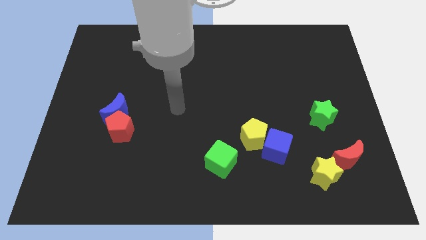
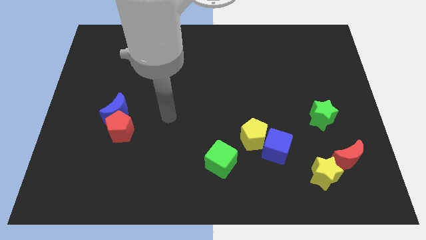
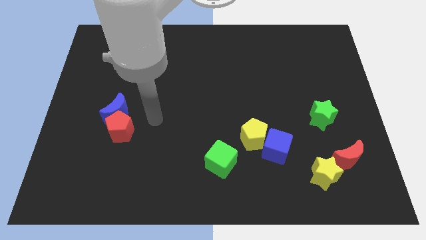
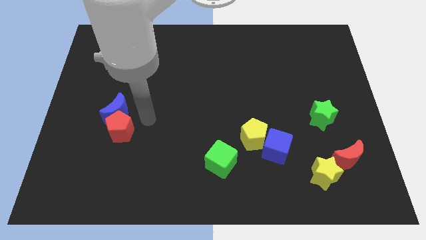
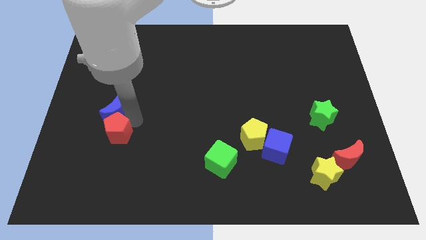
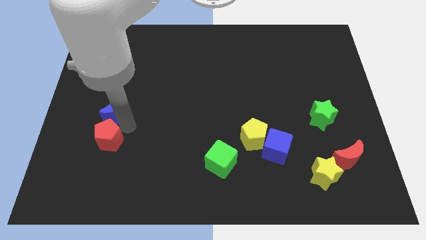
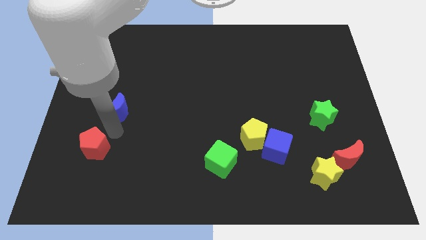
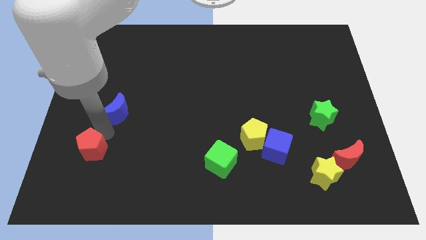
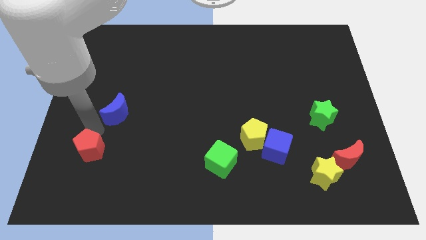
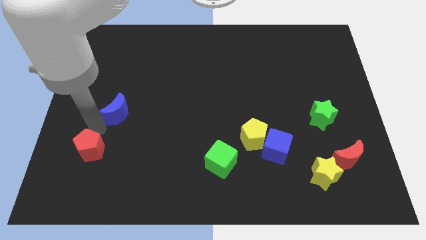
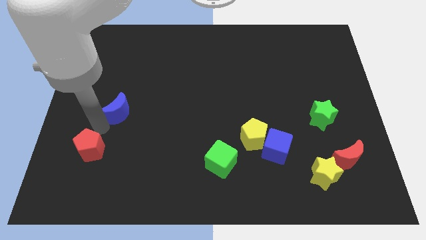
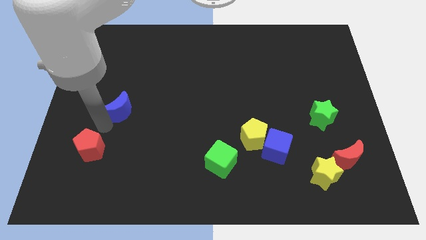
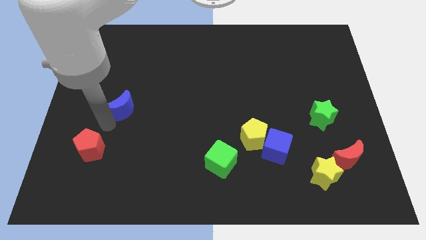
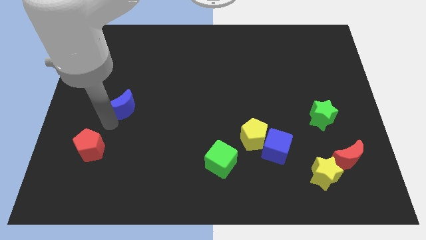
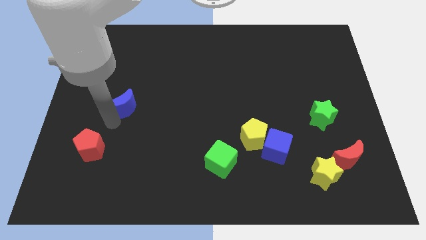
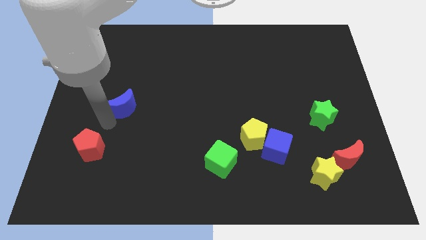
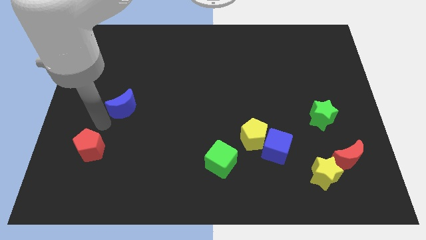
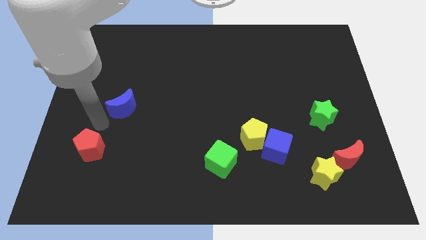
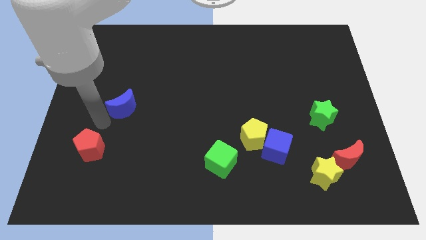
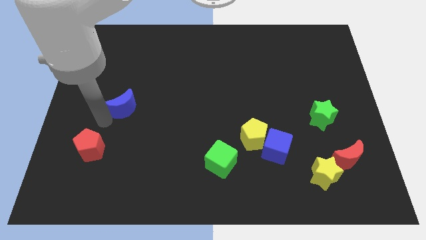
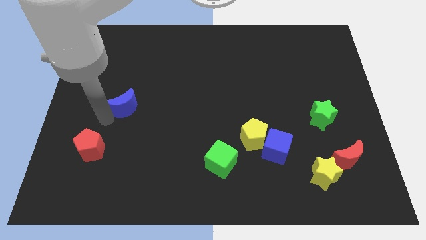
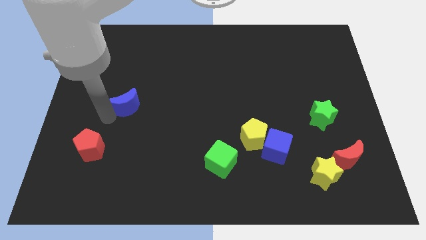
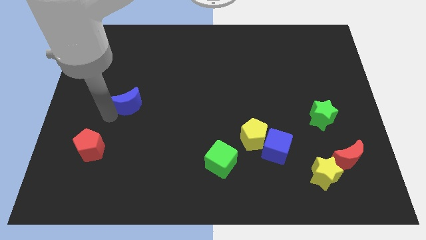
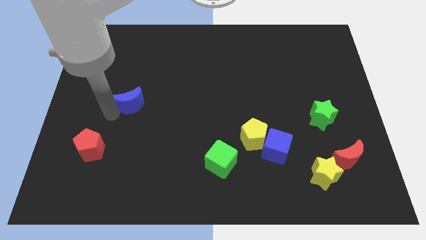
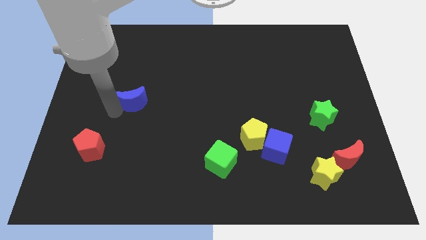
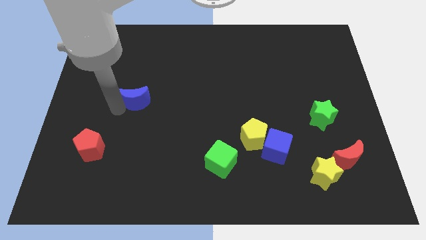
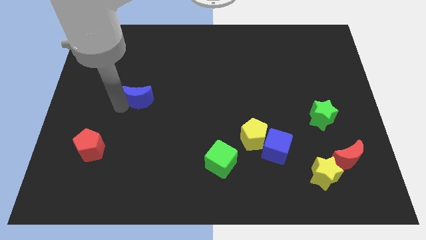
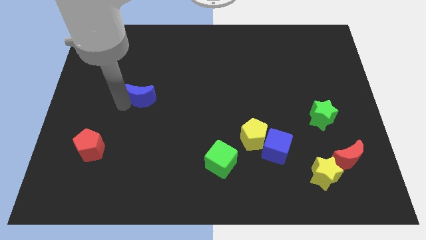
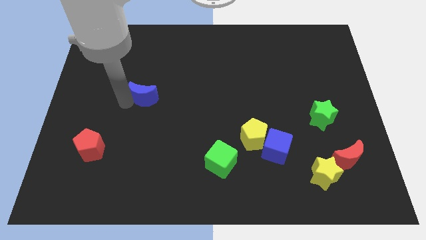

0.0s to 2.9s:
move the blue moon diagonally up and to the right a little

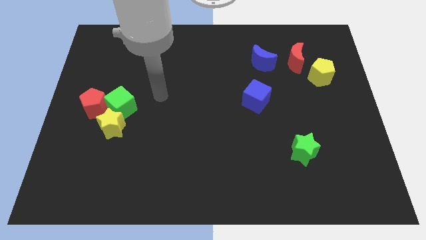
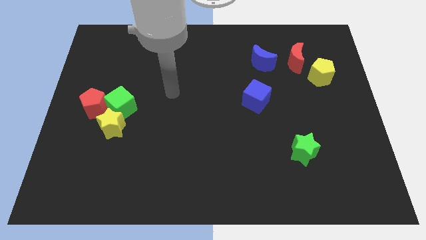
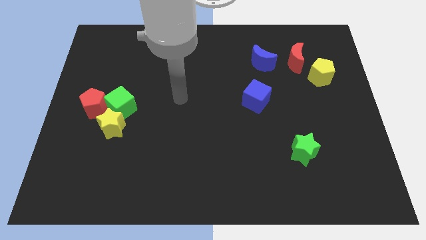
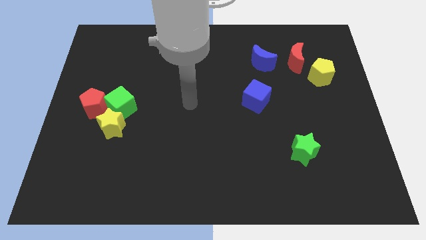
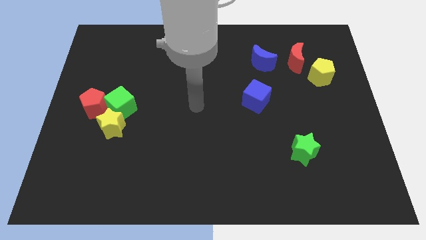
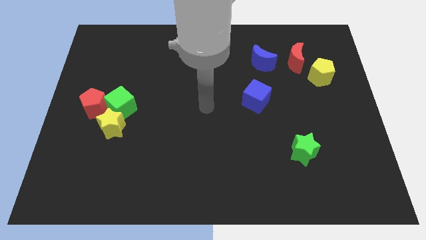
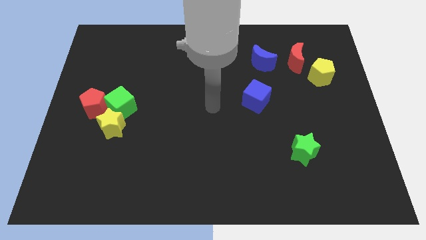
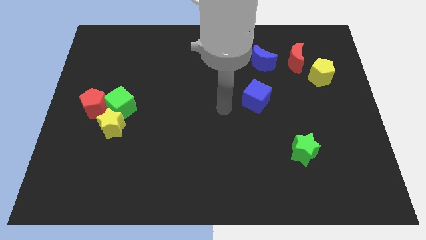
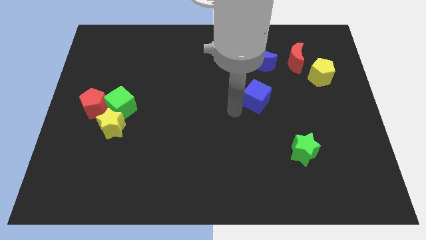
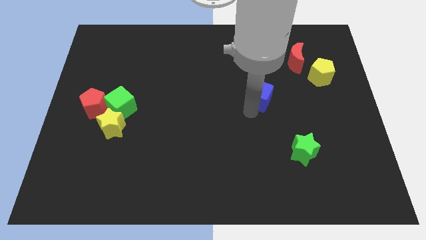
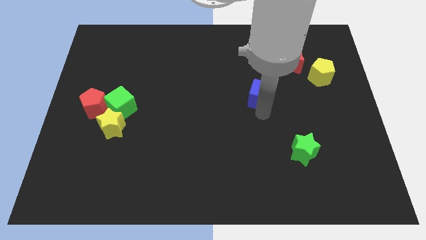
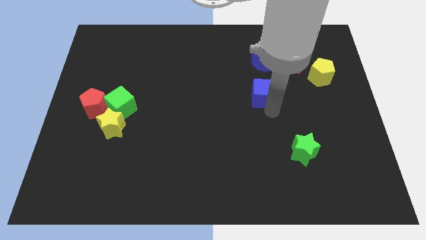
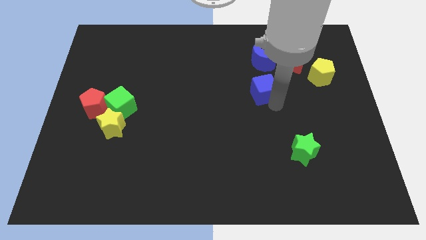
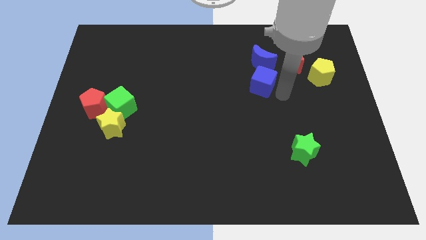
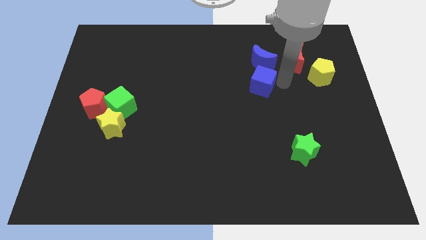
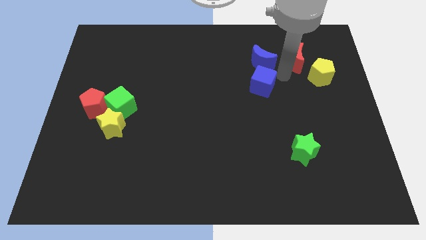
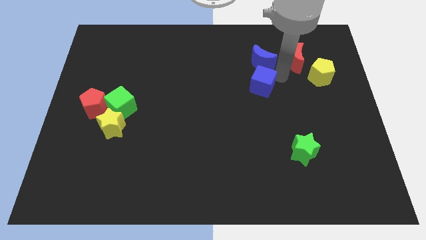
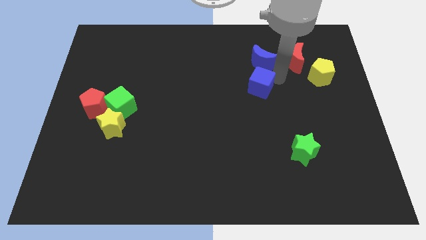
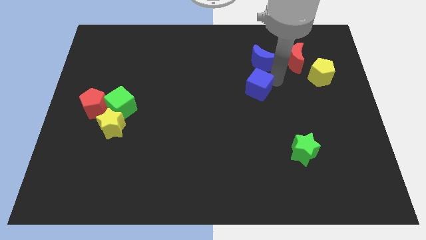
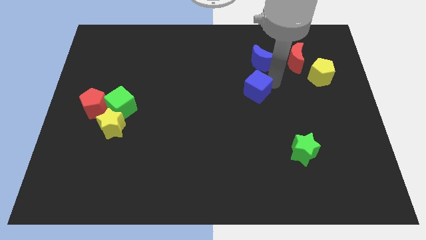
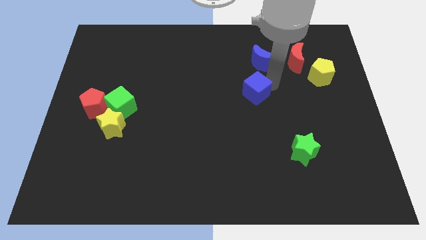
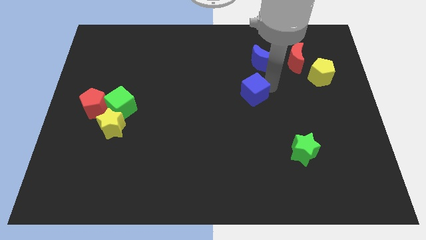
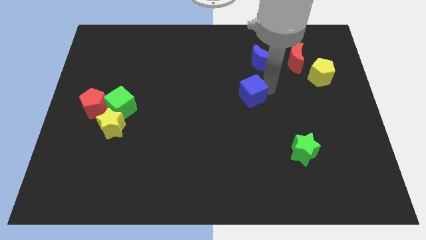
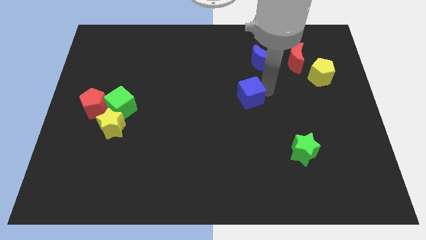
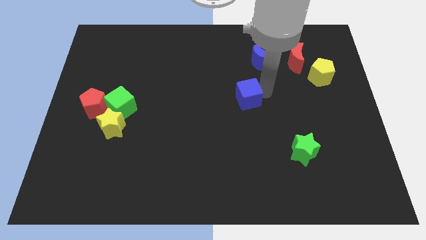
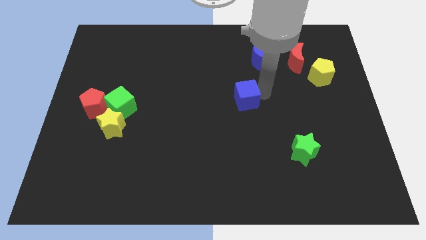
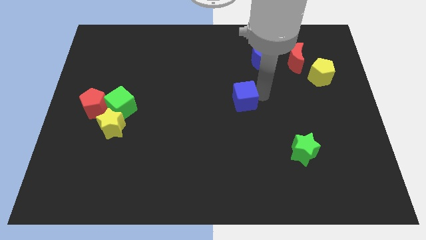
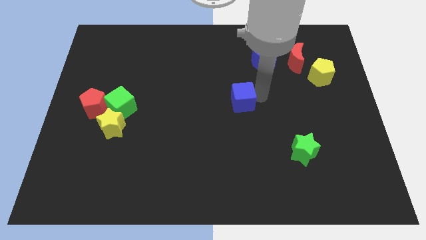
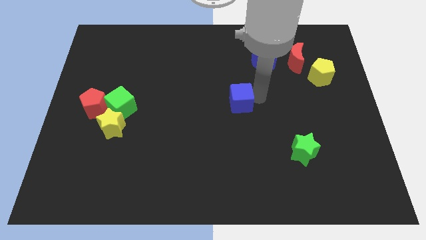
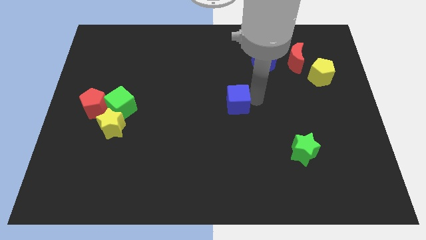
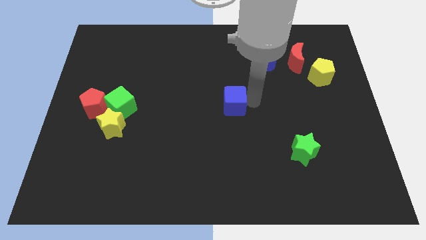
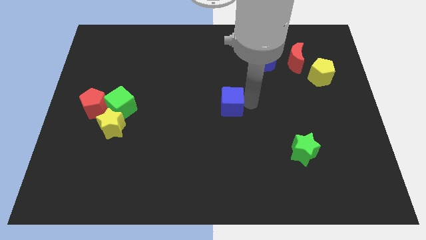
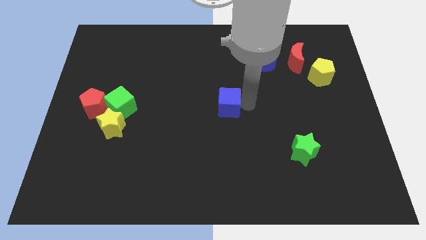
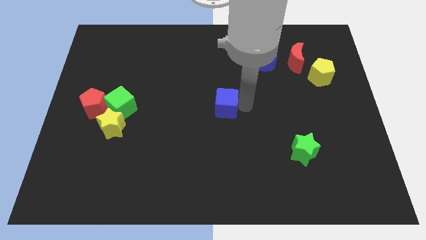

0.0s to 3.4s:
move the blue cube a little to the left

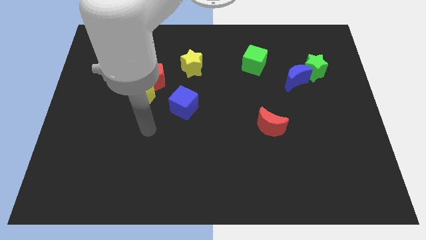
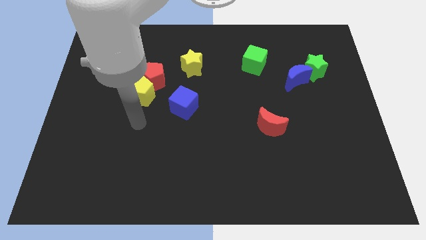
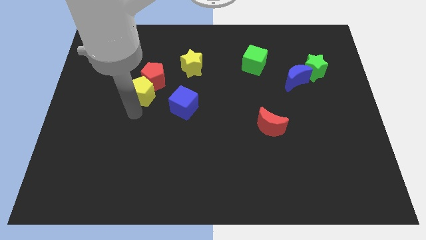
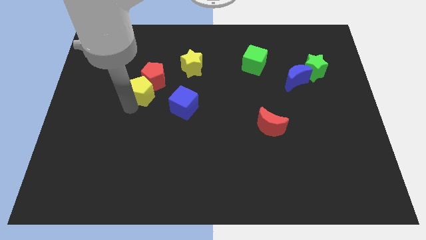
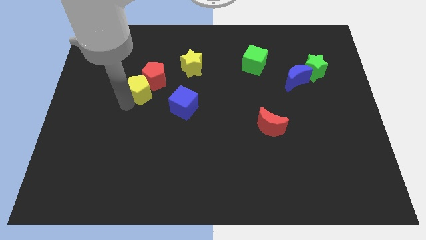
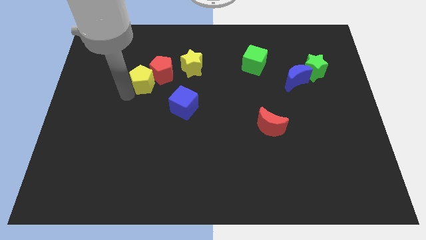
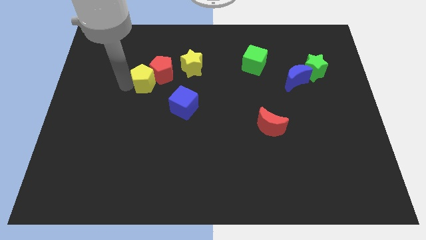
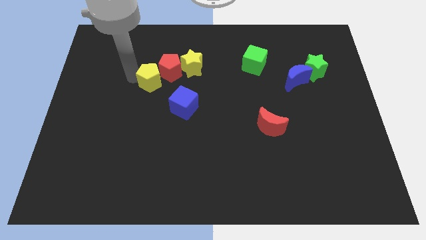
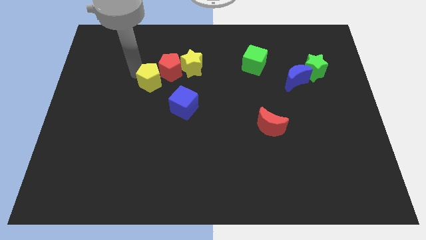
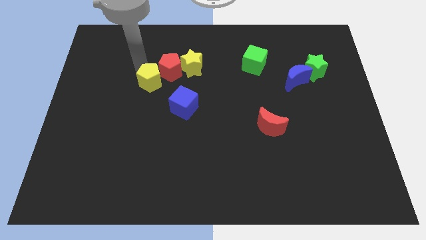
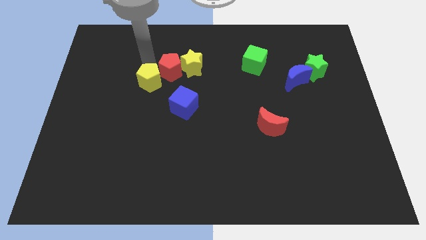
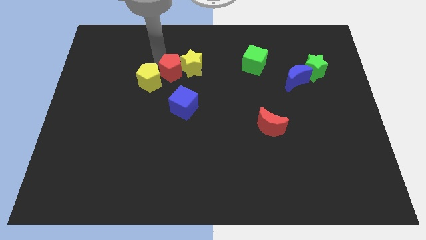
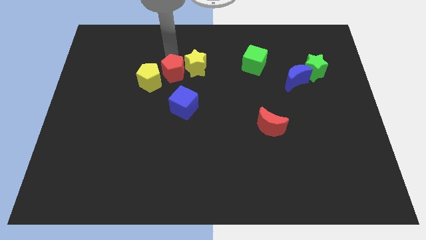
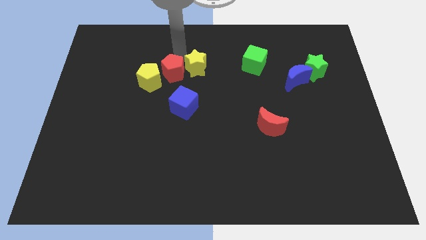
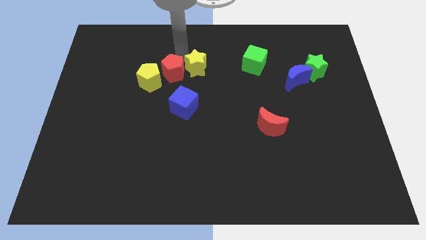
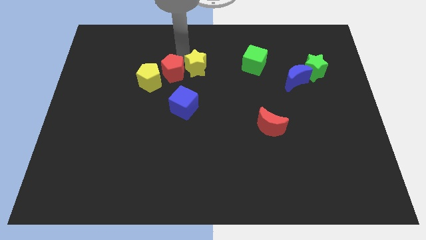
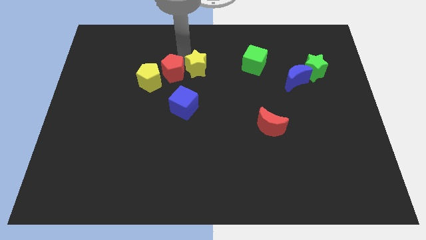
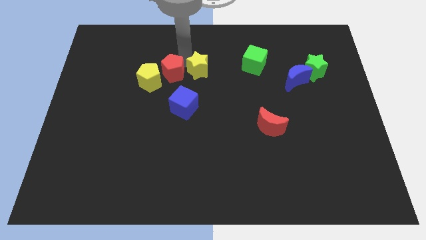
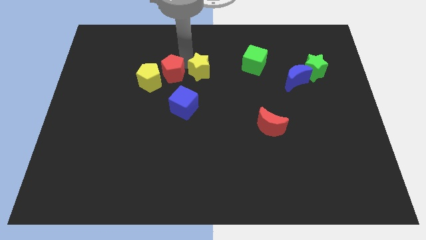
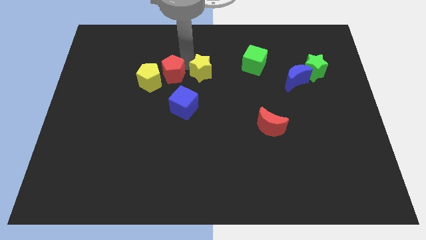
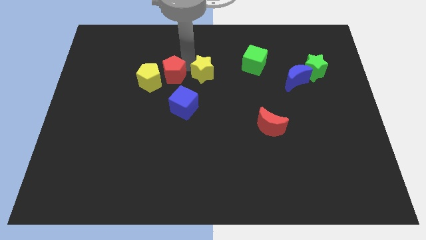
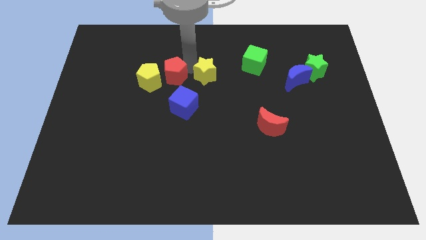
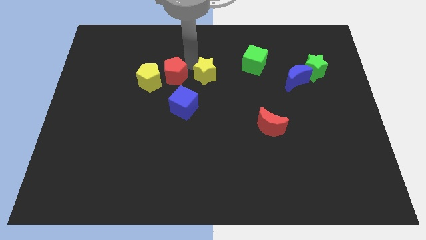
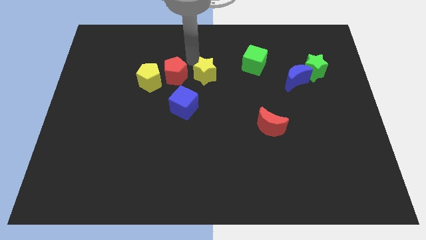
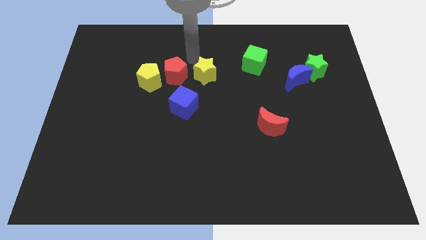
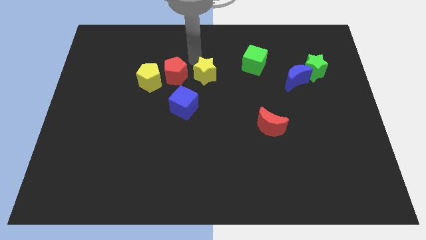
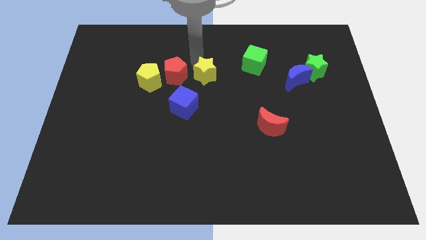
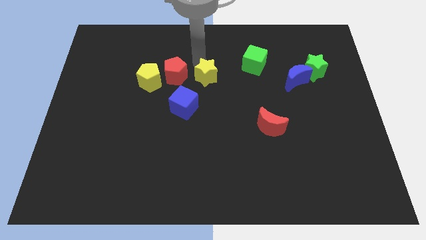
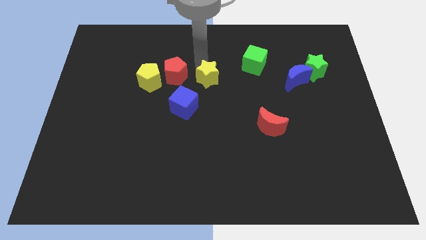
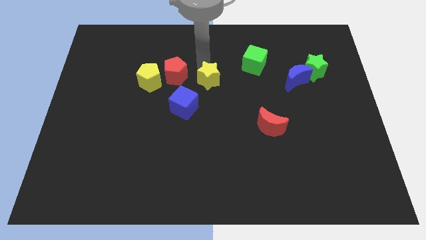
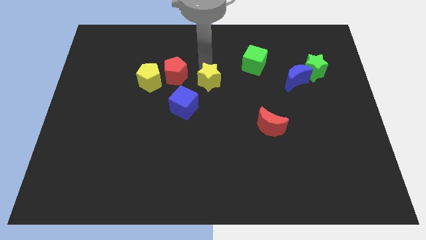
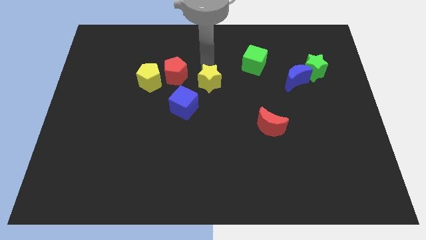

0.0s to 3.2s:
slightly push the yellow star down and right
